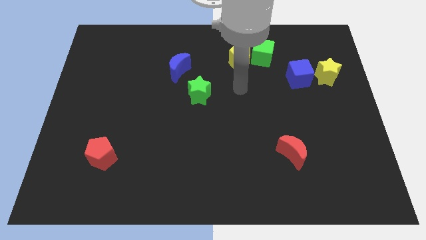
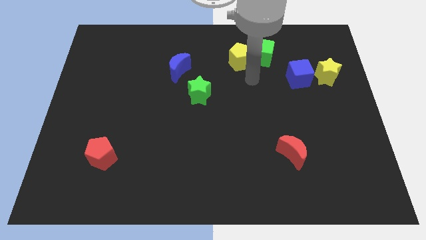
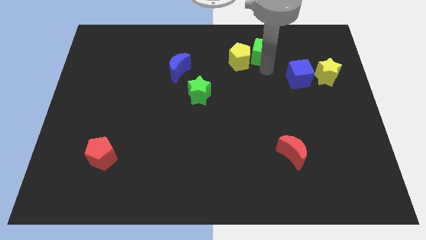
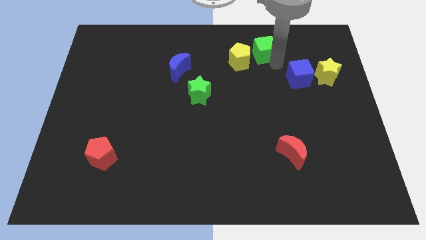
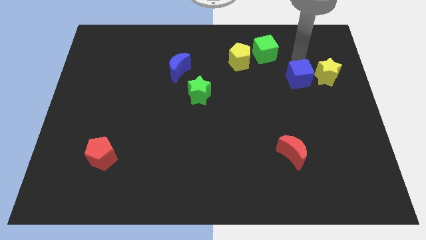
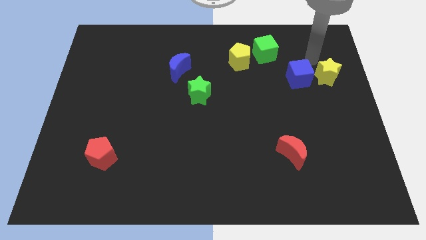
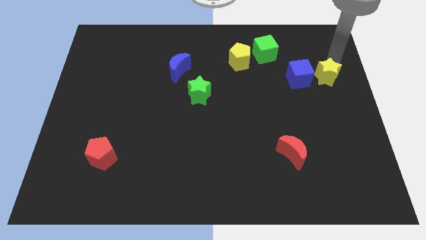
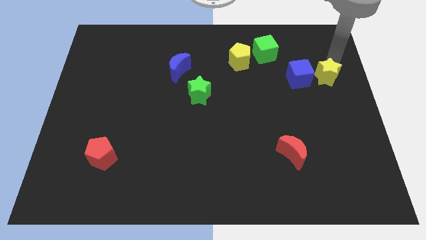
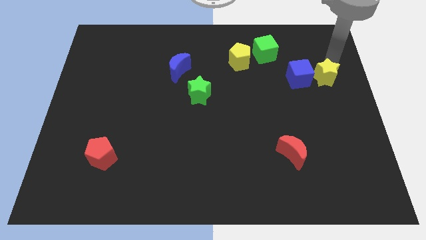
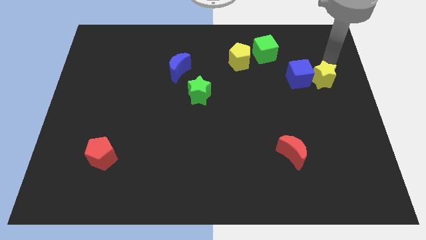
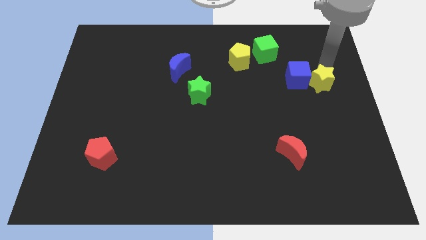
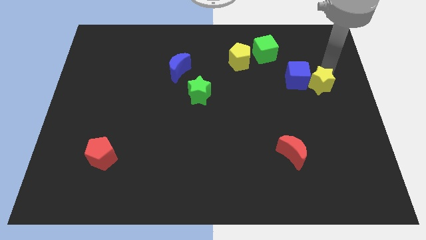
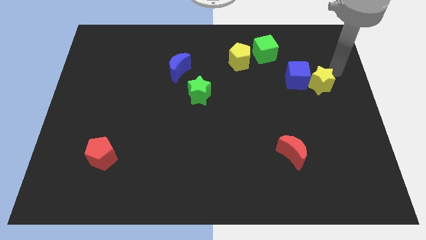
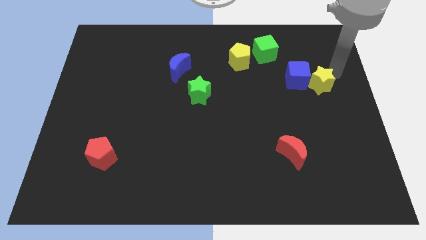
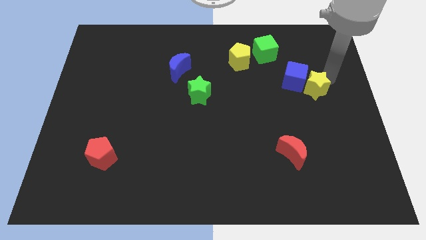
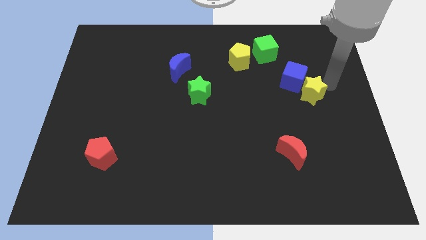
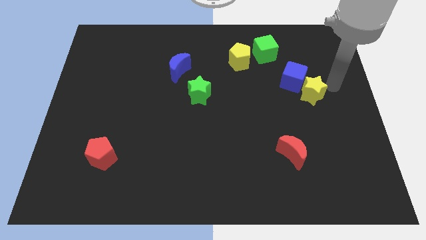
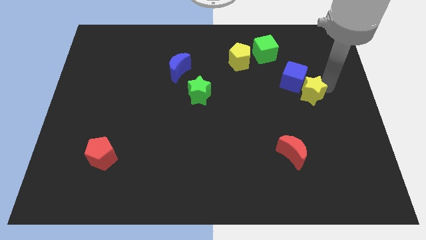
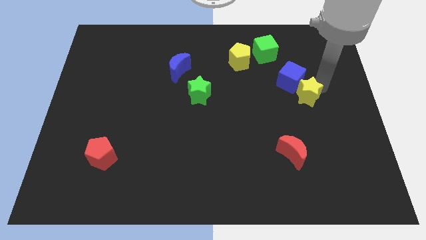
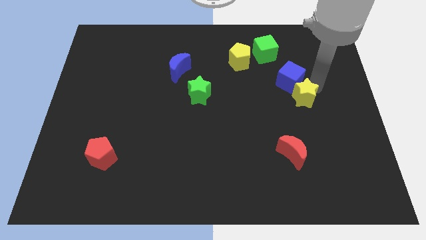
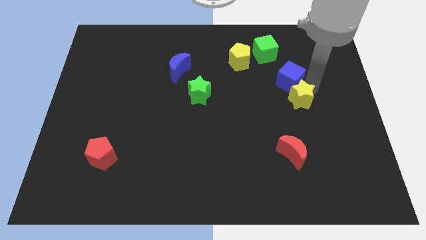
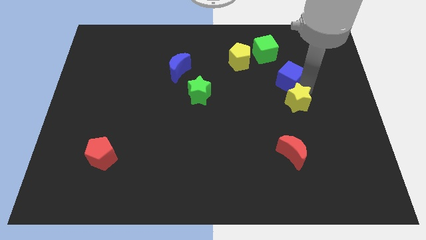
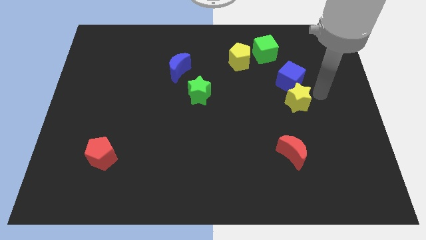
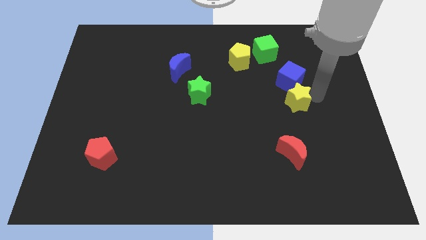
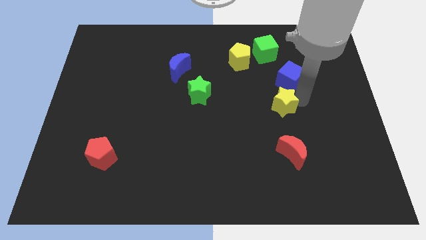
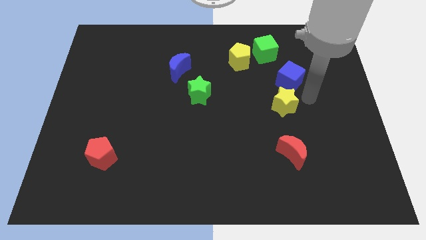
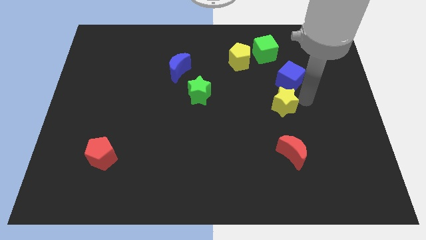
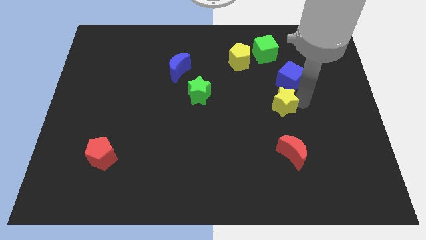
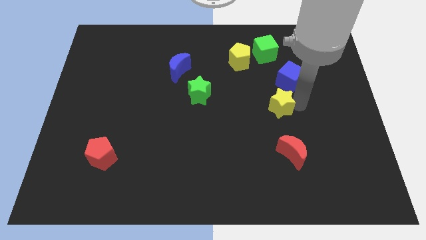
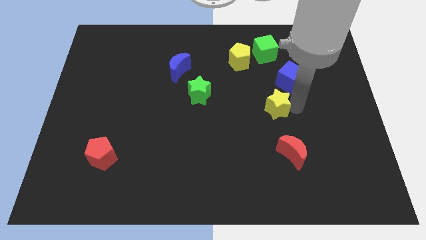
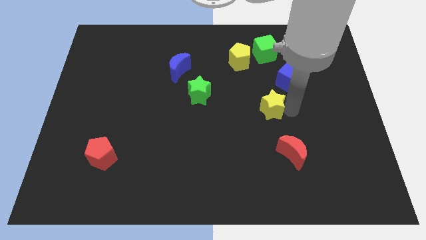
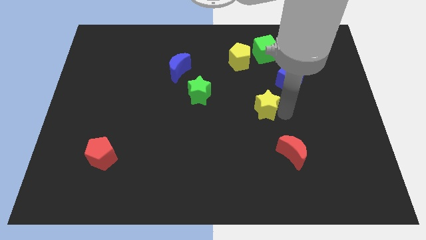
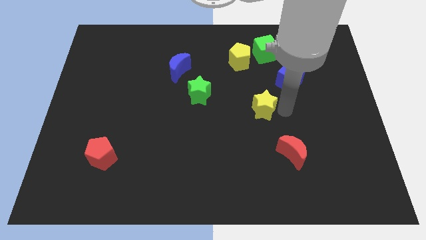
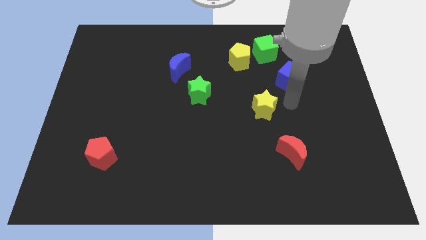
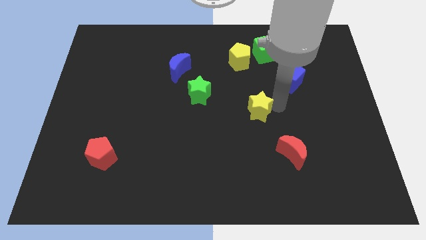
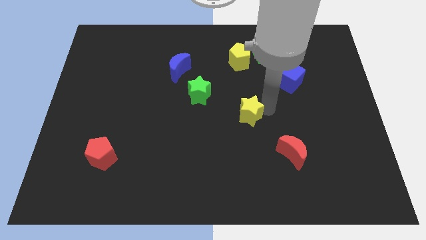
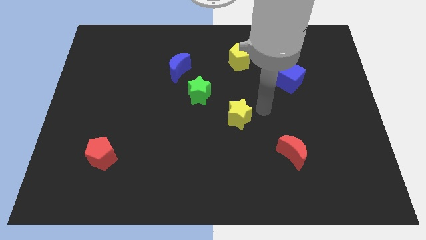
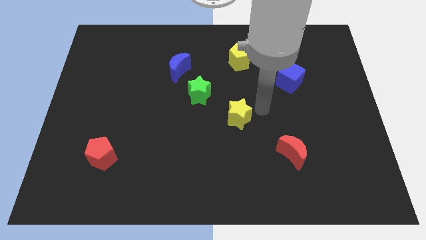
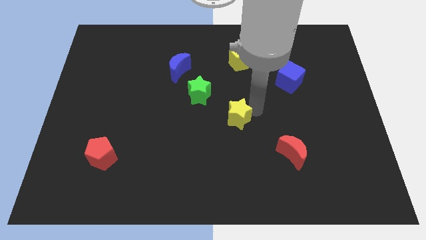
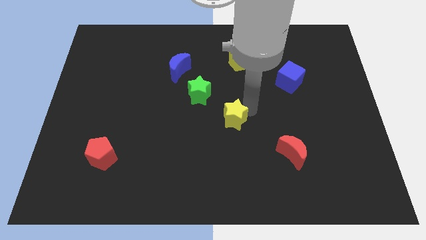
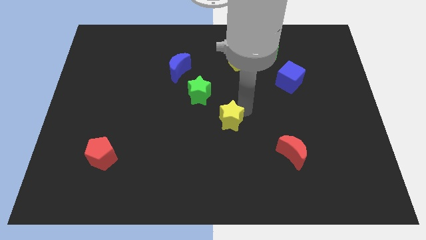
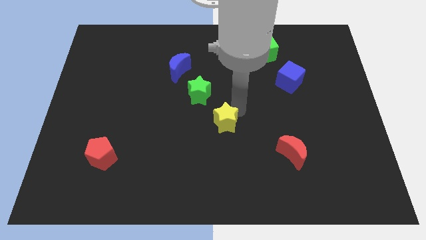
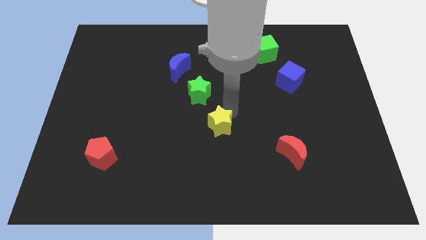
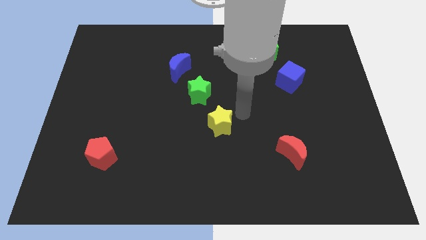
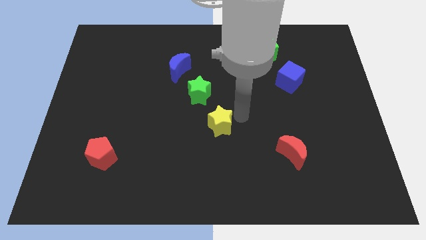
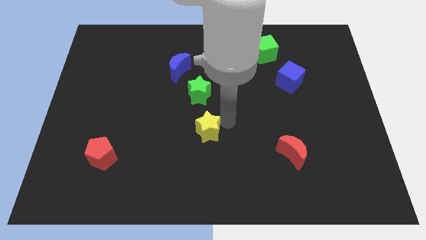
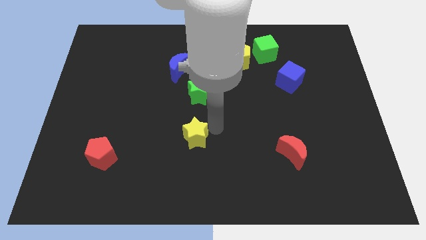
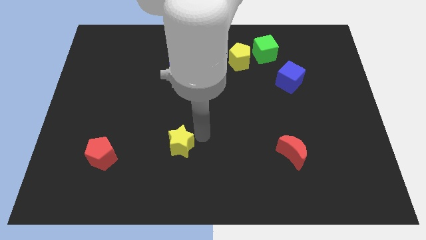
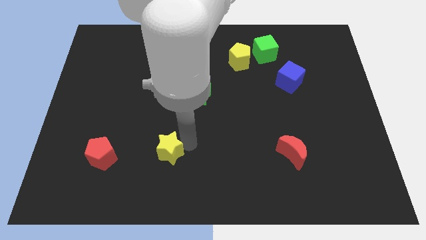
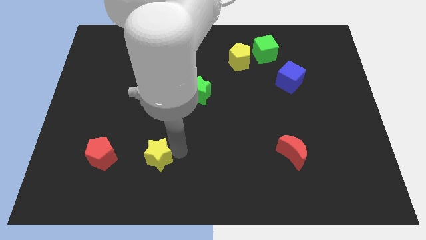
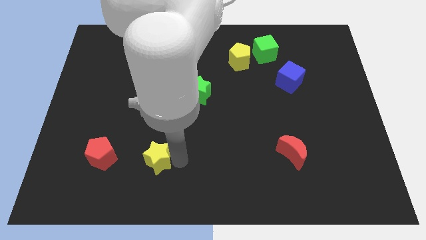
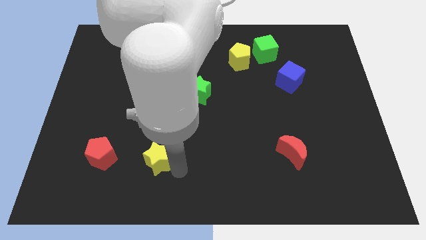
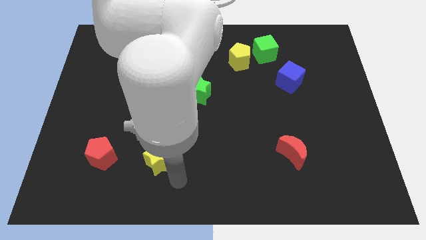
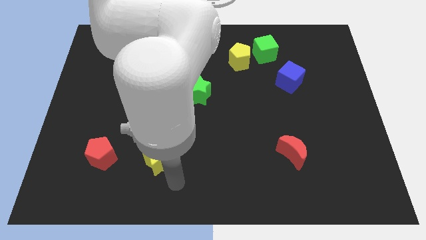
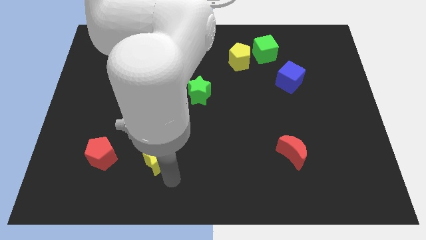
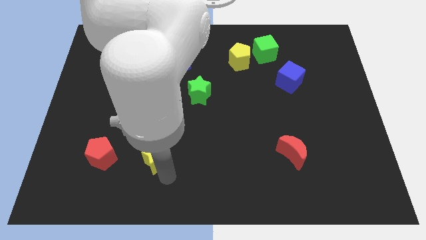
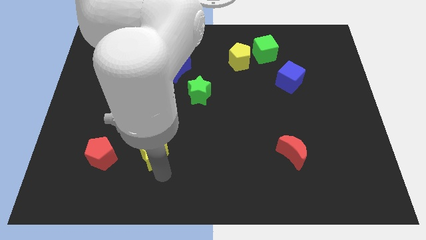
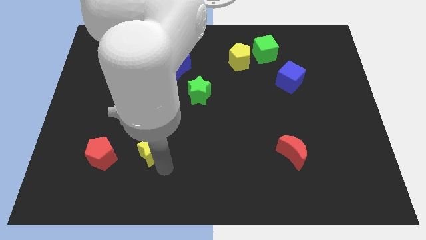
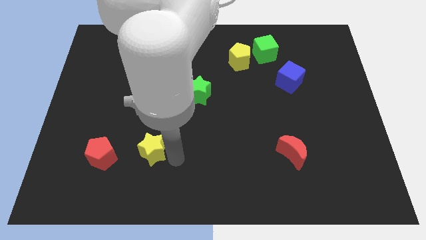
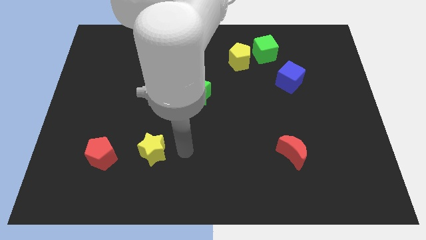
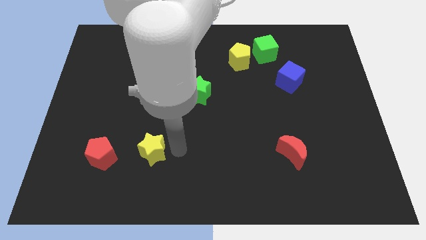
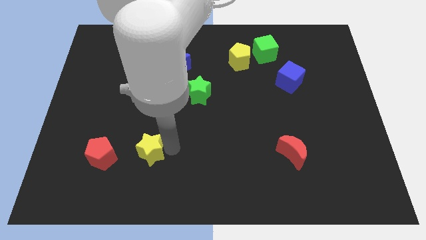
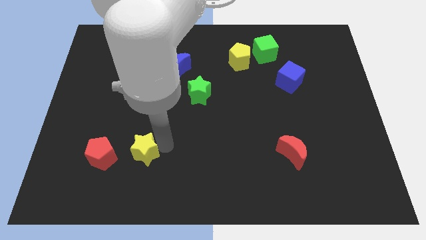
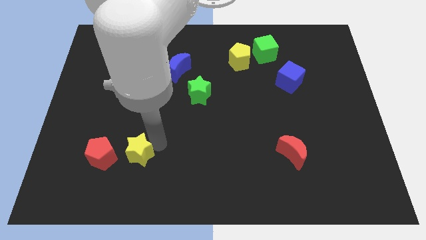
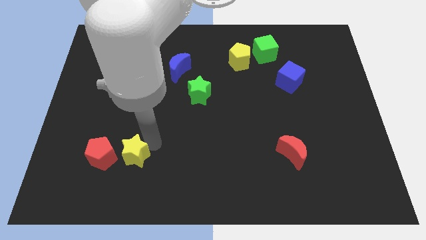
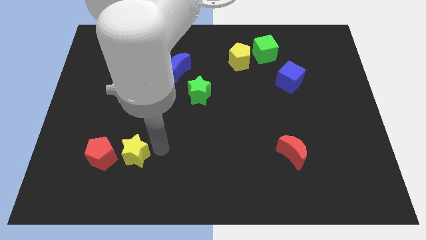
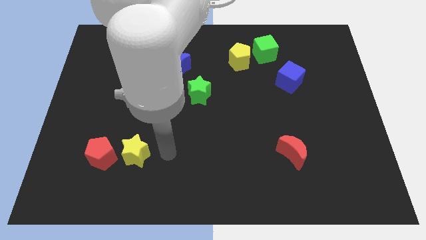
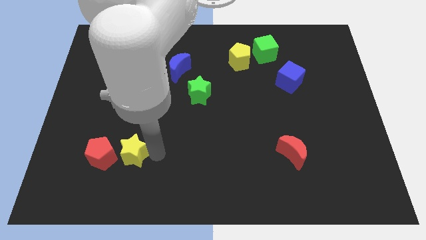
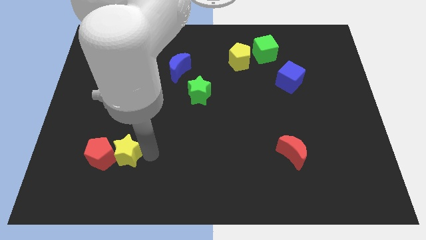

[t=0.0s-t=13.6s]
move the yellow star close to the red pentagon
